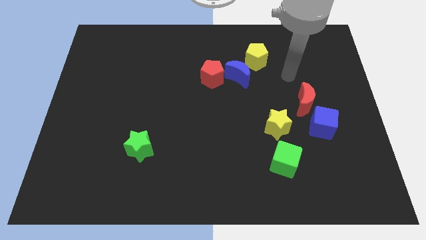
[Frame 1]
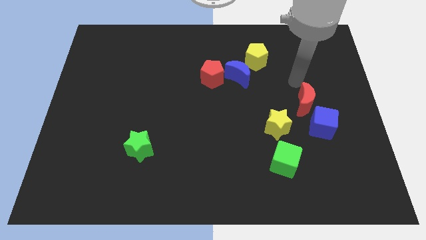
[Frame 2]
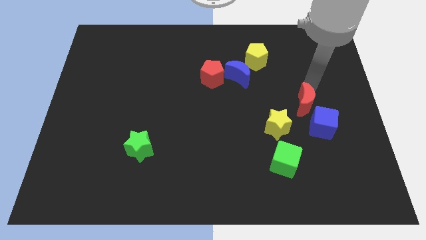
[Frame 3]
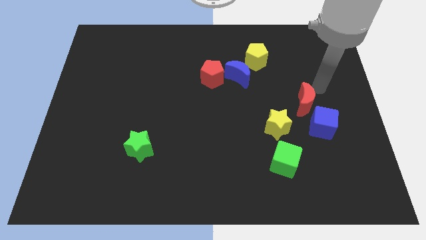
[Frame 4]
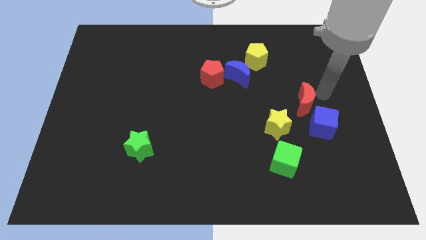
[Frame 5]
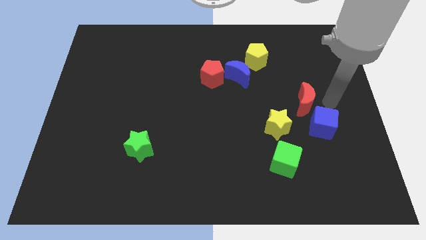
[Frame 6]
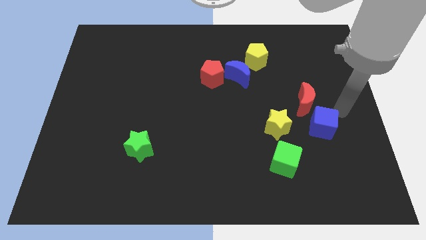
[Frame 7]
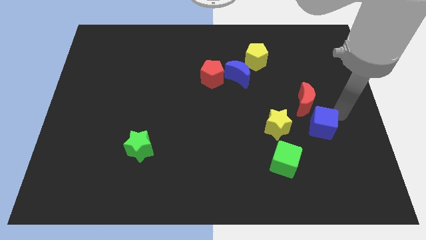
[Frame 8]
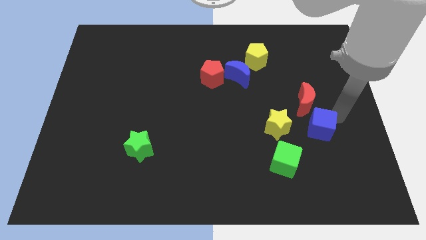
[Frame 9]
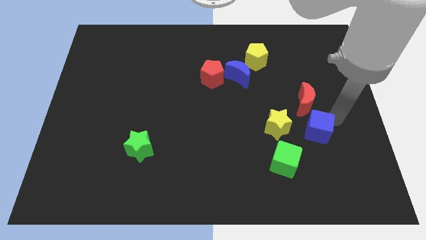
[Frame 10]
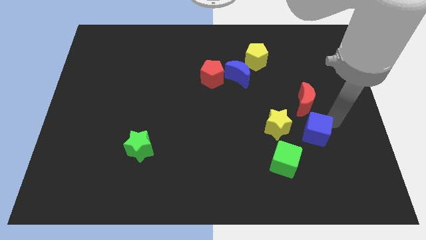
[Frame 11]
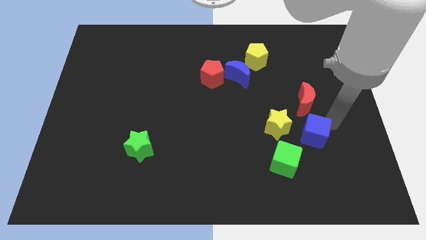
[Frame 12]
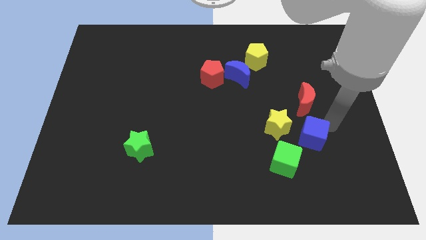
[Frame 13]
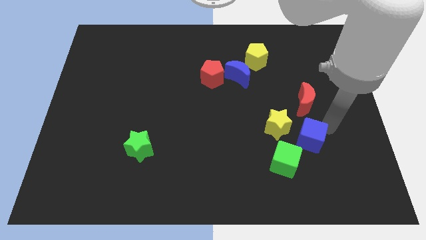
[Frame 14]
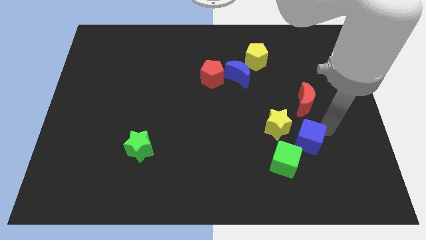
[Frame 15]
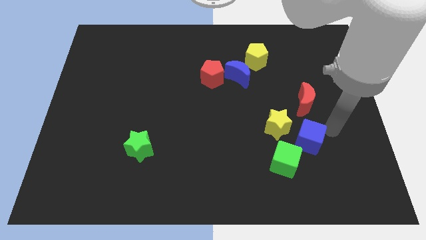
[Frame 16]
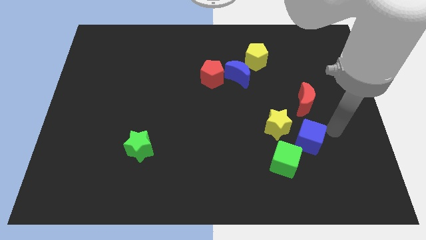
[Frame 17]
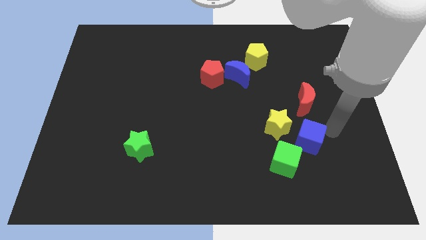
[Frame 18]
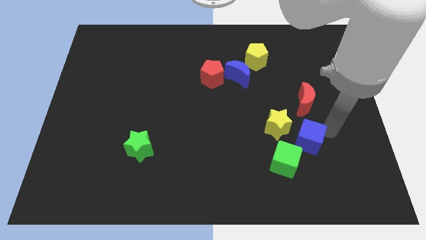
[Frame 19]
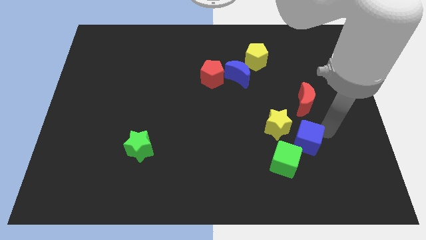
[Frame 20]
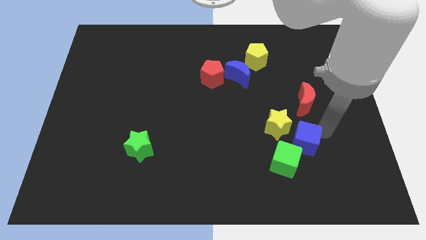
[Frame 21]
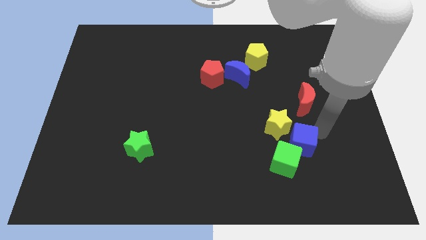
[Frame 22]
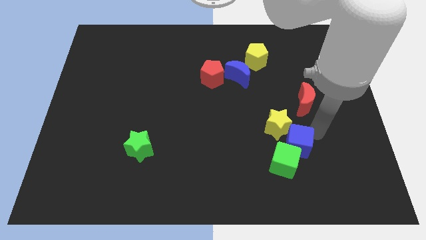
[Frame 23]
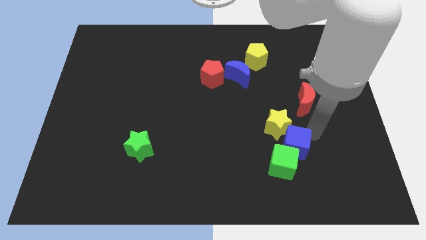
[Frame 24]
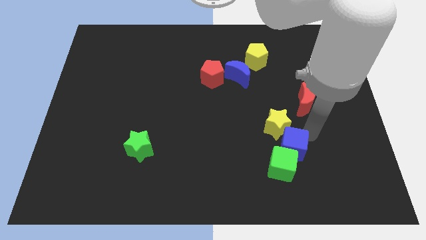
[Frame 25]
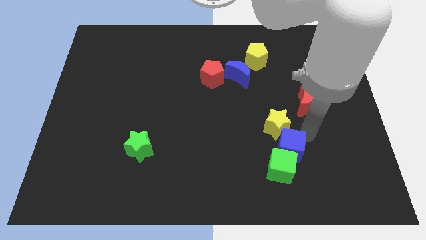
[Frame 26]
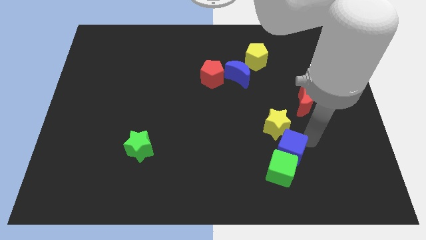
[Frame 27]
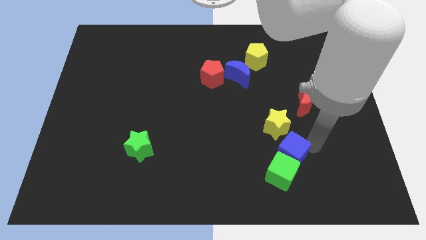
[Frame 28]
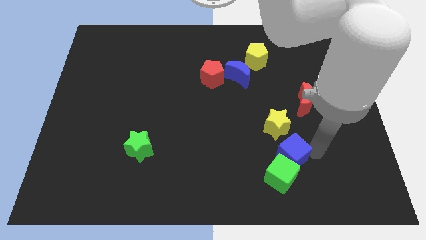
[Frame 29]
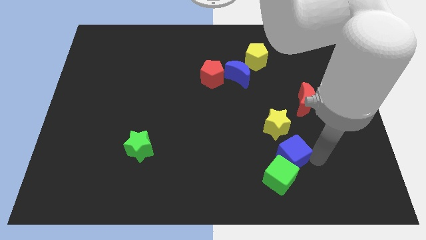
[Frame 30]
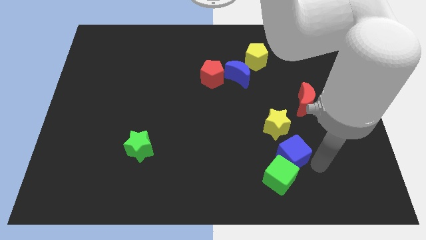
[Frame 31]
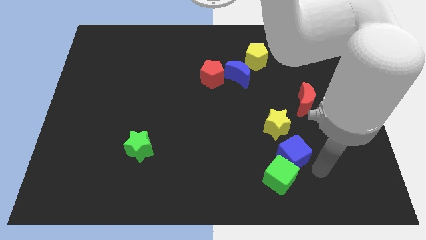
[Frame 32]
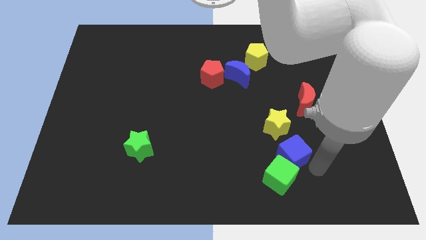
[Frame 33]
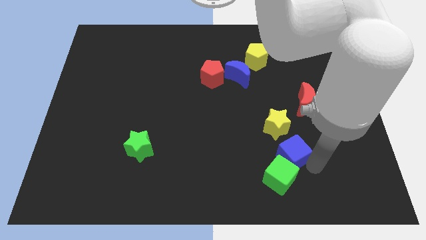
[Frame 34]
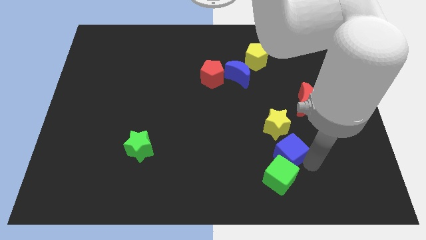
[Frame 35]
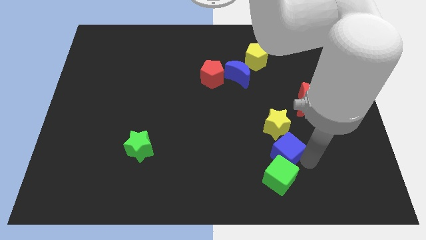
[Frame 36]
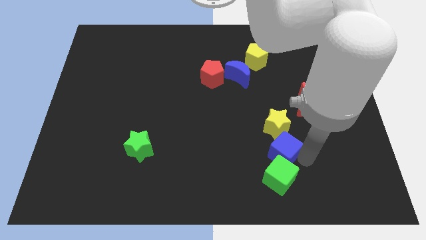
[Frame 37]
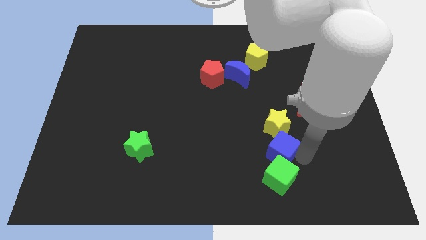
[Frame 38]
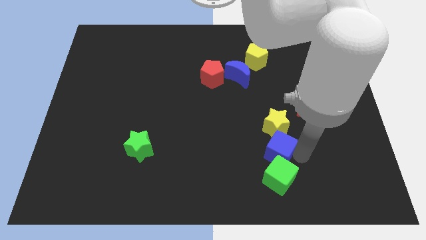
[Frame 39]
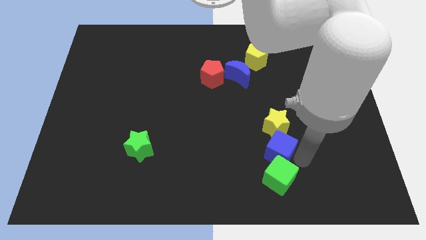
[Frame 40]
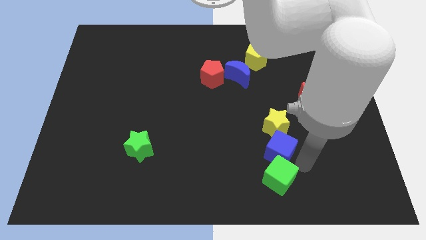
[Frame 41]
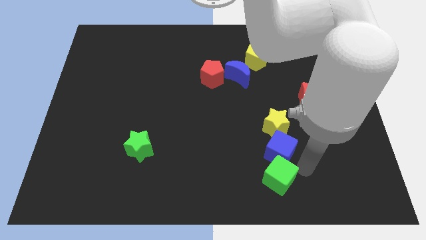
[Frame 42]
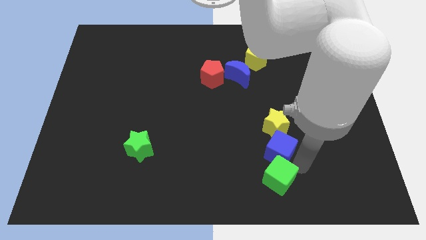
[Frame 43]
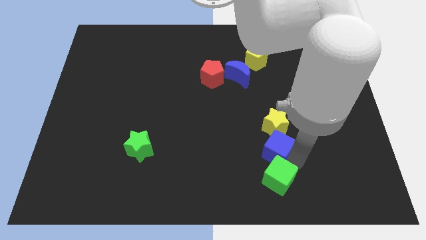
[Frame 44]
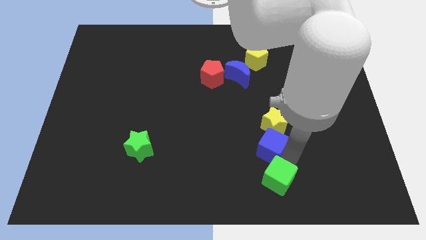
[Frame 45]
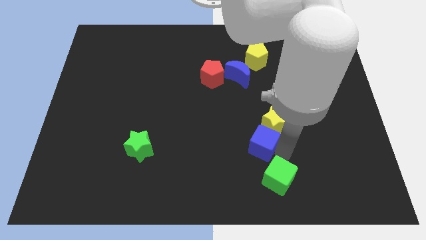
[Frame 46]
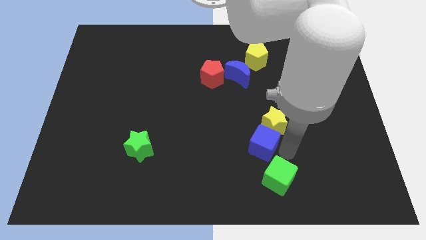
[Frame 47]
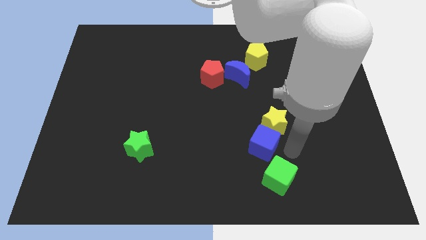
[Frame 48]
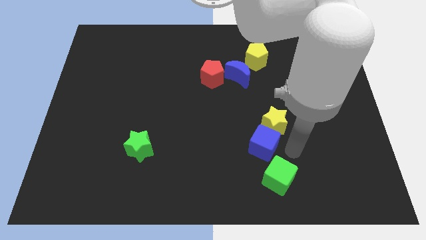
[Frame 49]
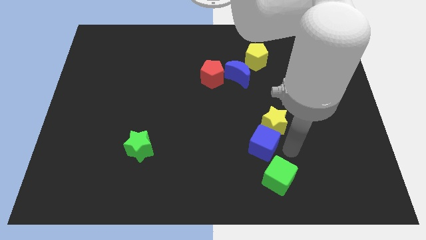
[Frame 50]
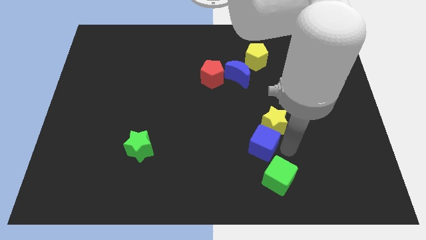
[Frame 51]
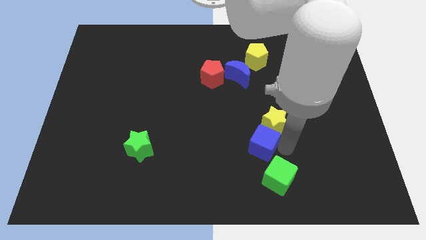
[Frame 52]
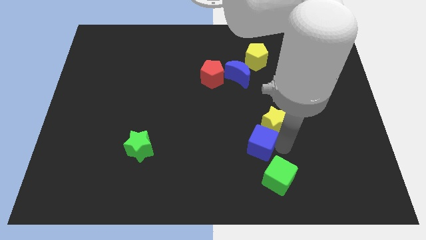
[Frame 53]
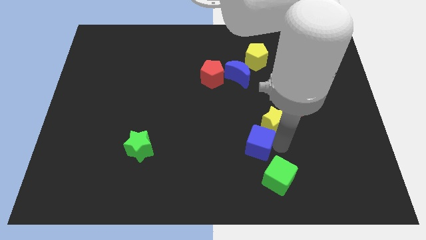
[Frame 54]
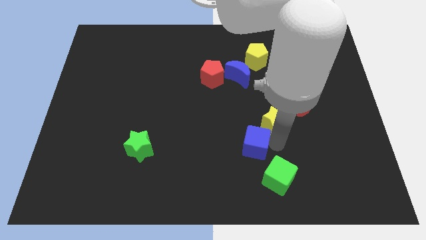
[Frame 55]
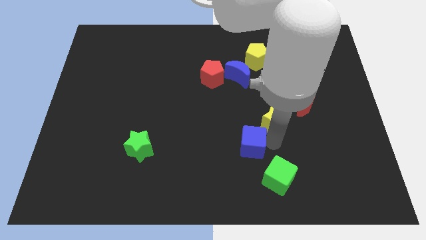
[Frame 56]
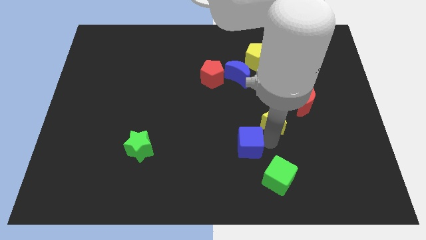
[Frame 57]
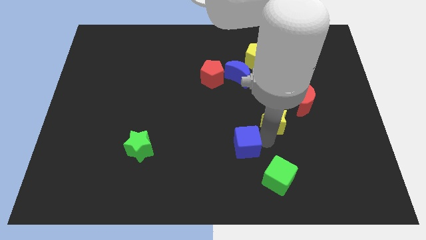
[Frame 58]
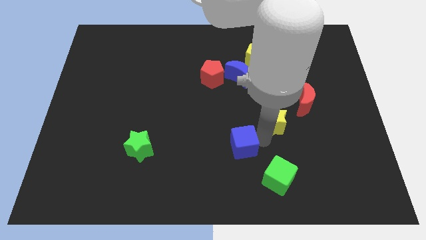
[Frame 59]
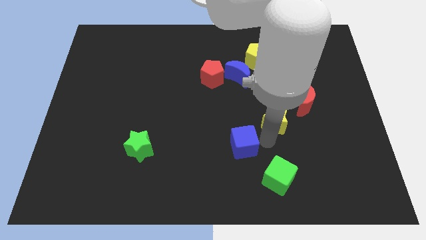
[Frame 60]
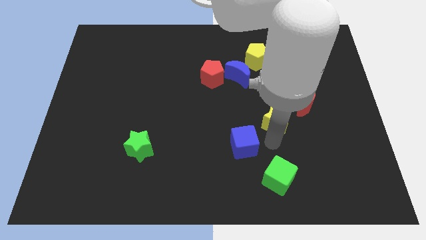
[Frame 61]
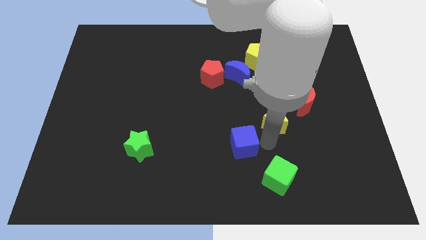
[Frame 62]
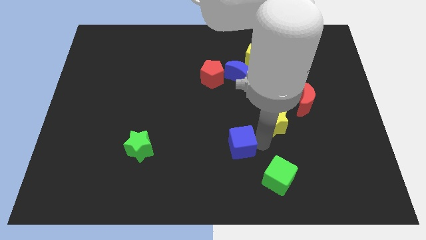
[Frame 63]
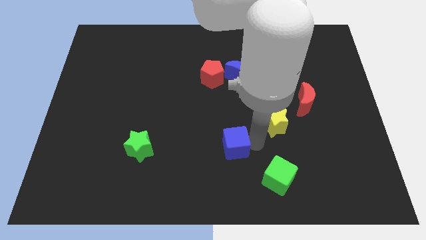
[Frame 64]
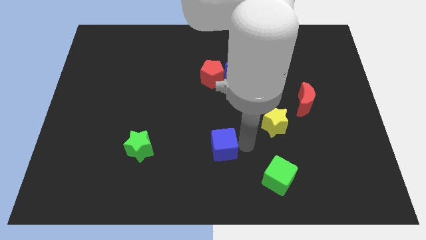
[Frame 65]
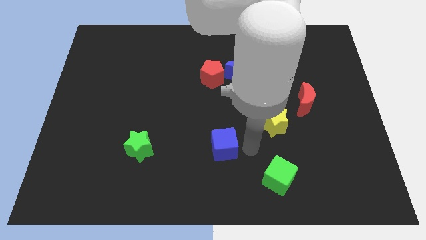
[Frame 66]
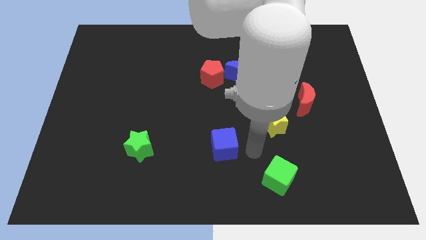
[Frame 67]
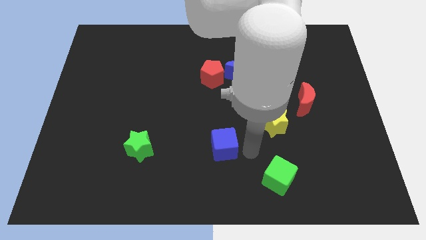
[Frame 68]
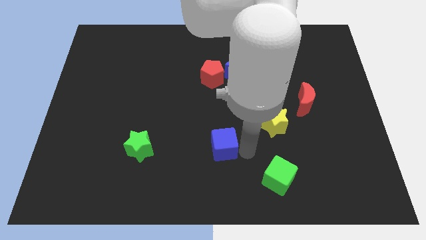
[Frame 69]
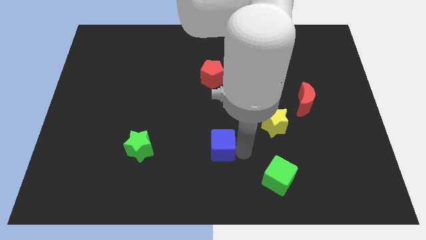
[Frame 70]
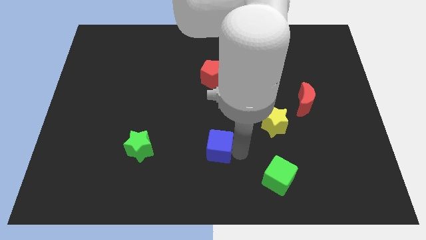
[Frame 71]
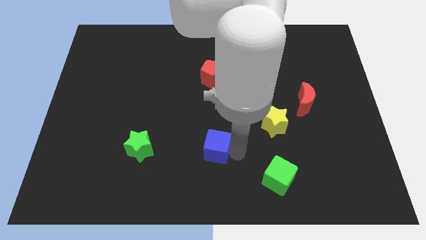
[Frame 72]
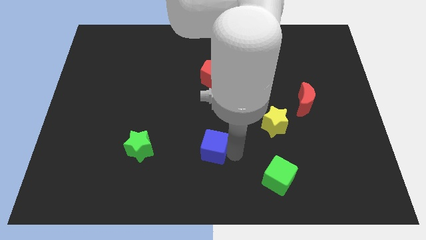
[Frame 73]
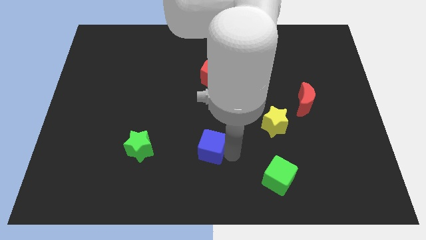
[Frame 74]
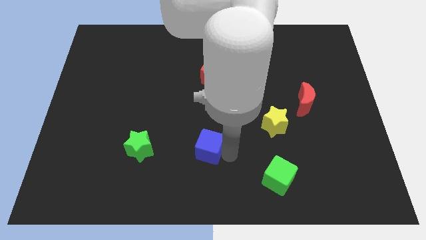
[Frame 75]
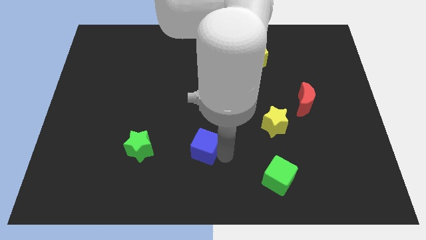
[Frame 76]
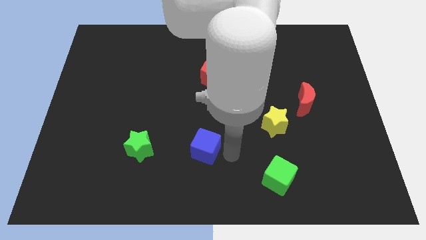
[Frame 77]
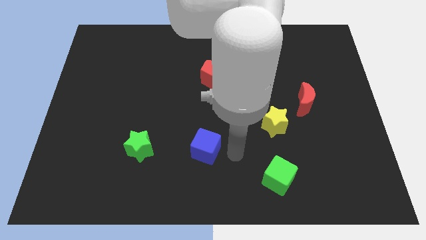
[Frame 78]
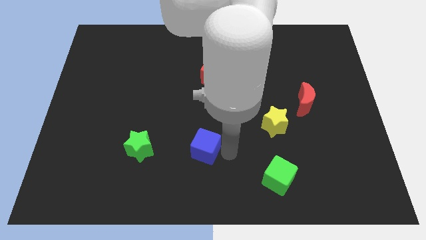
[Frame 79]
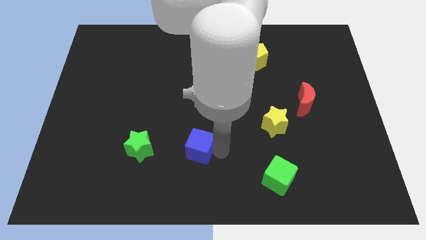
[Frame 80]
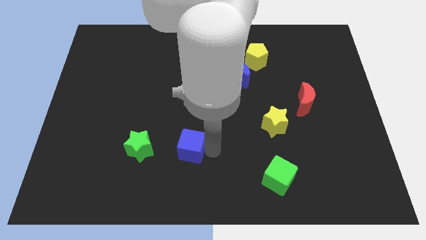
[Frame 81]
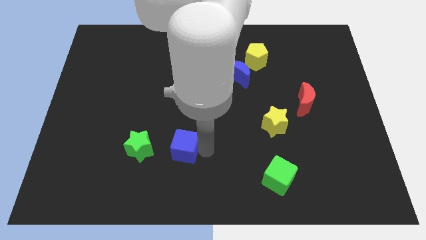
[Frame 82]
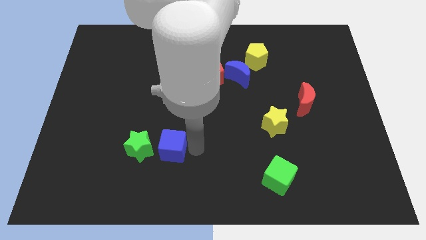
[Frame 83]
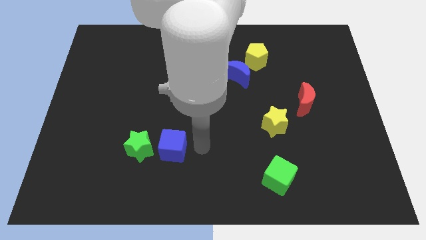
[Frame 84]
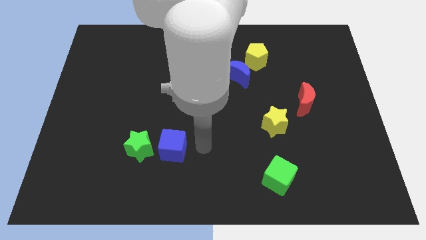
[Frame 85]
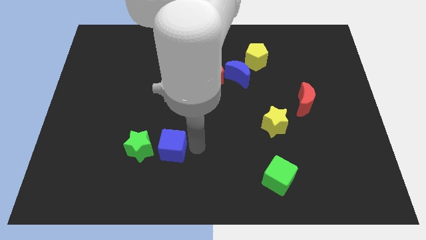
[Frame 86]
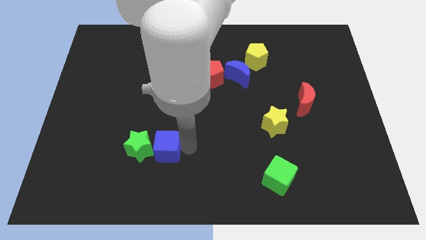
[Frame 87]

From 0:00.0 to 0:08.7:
push the blue cube to the green star
